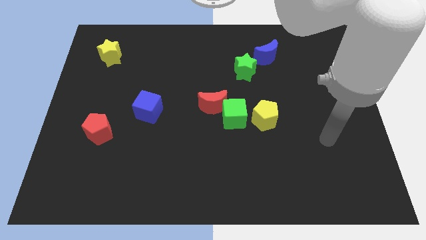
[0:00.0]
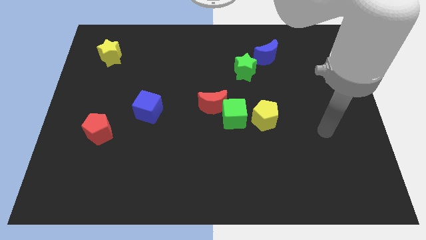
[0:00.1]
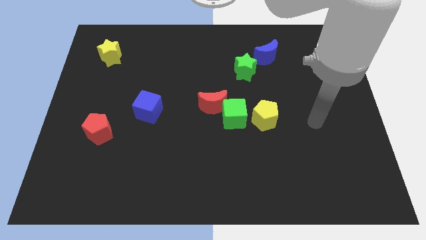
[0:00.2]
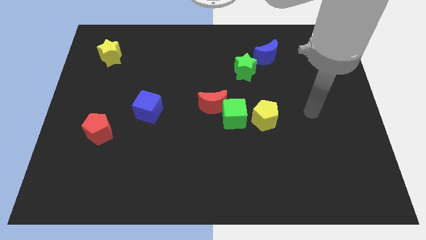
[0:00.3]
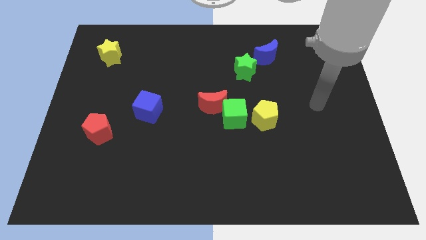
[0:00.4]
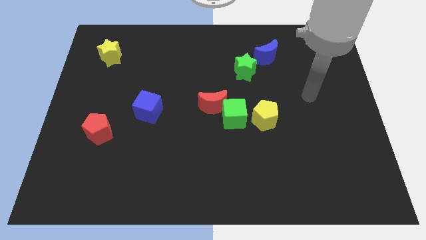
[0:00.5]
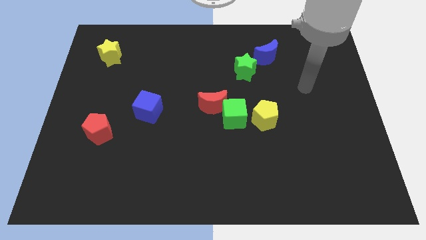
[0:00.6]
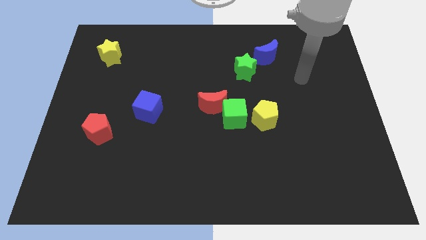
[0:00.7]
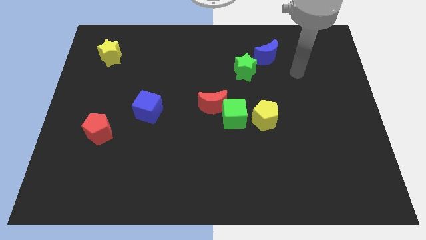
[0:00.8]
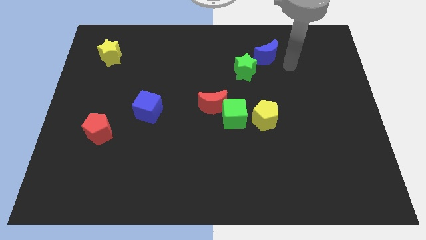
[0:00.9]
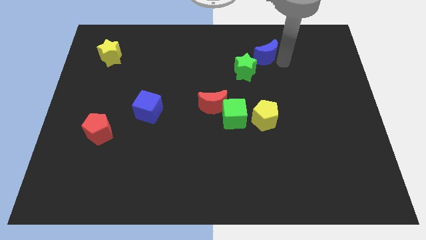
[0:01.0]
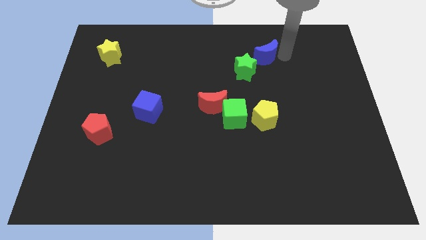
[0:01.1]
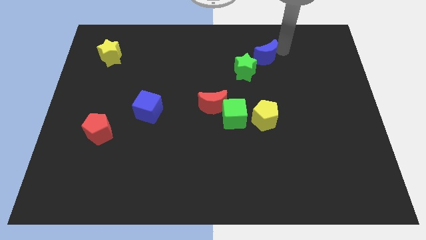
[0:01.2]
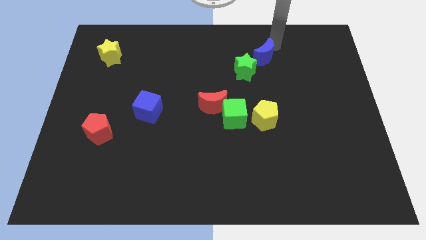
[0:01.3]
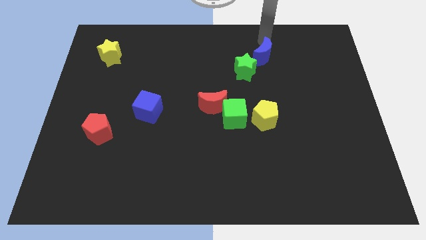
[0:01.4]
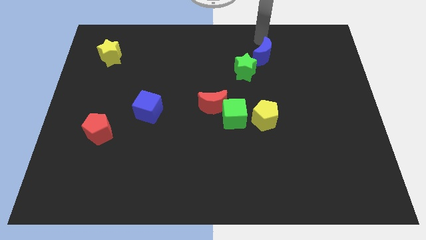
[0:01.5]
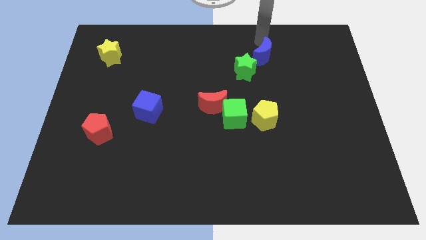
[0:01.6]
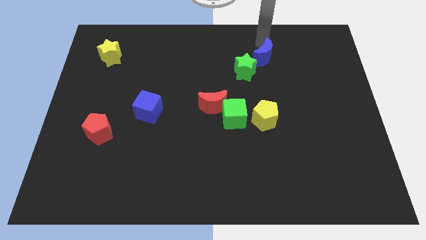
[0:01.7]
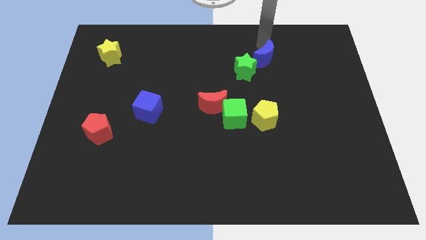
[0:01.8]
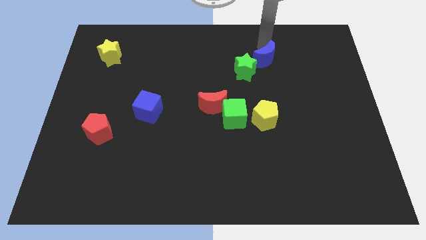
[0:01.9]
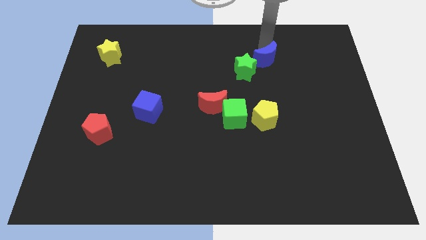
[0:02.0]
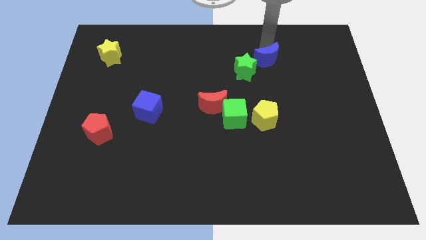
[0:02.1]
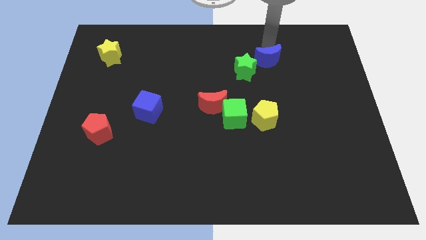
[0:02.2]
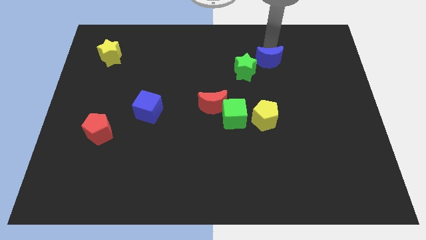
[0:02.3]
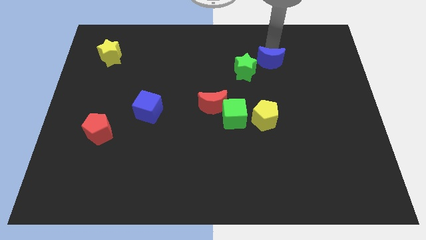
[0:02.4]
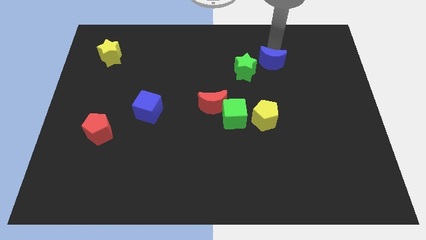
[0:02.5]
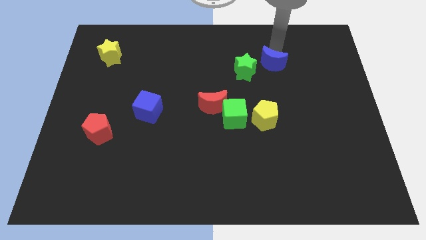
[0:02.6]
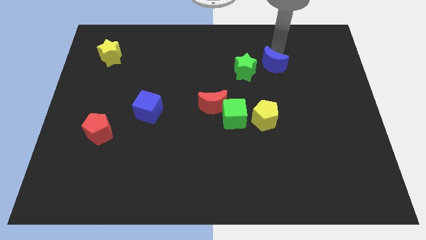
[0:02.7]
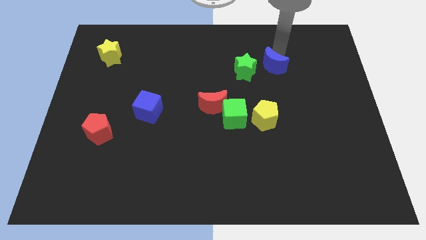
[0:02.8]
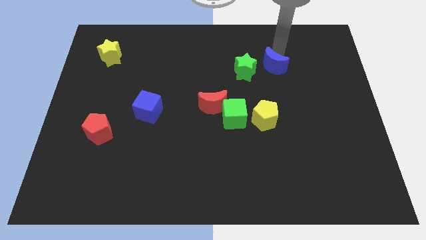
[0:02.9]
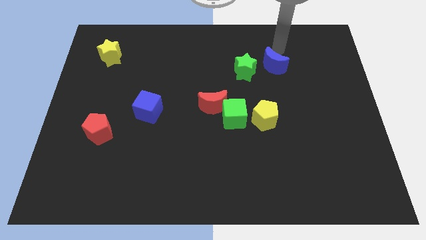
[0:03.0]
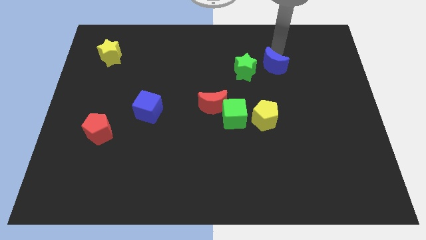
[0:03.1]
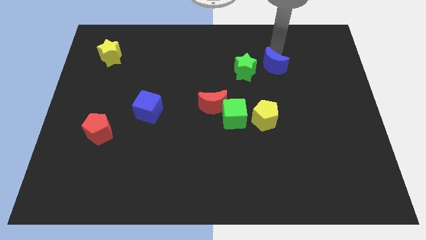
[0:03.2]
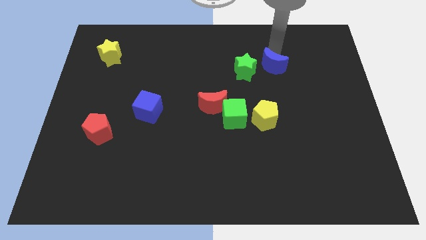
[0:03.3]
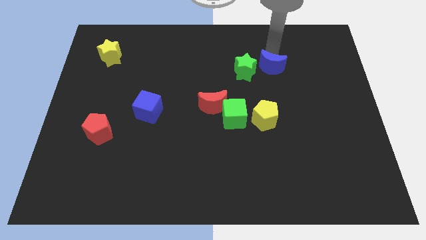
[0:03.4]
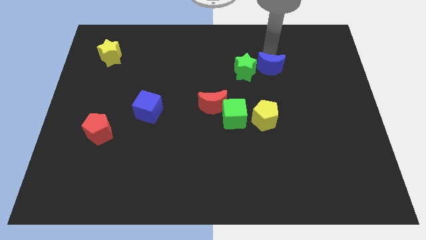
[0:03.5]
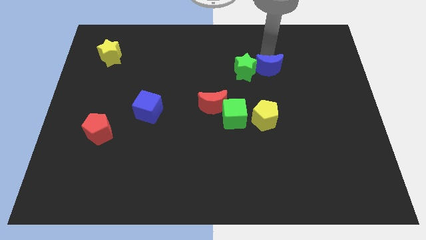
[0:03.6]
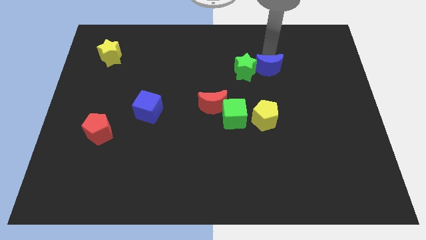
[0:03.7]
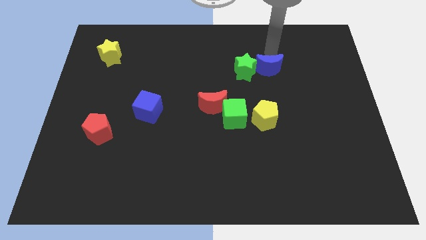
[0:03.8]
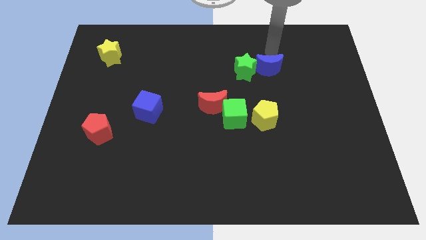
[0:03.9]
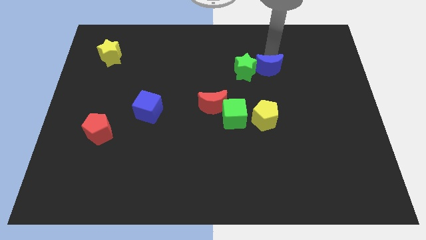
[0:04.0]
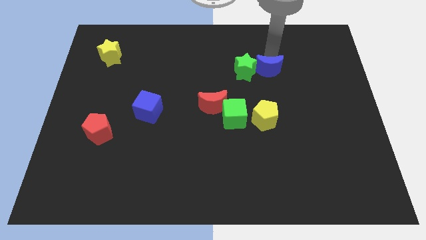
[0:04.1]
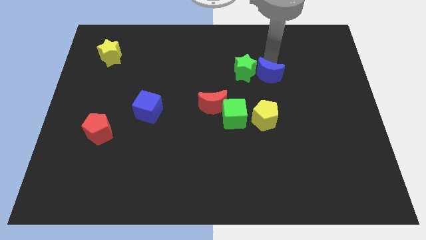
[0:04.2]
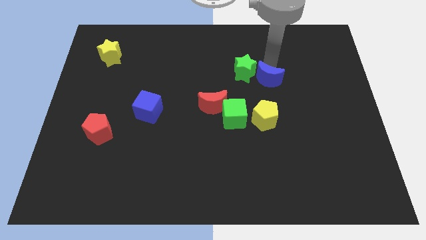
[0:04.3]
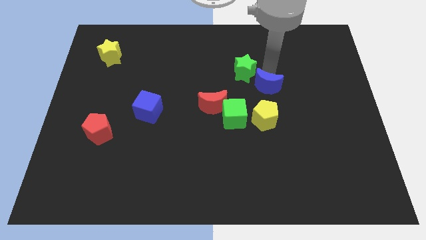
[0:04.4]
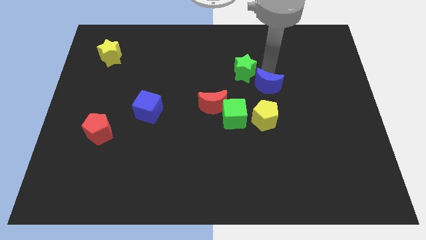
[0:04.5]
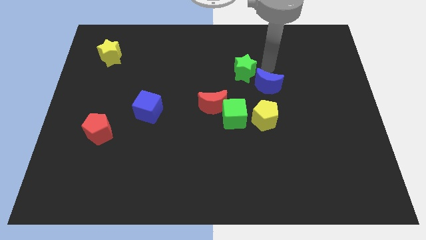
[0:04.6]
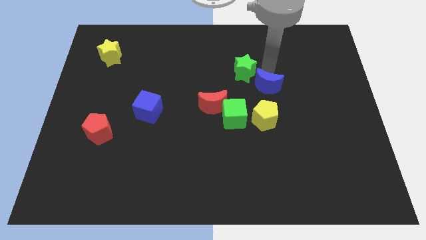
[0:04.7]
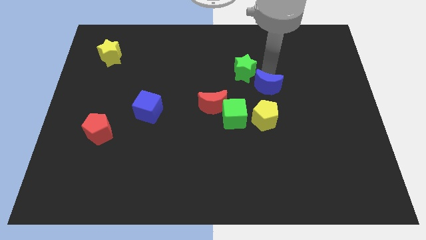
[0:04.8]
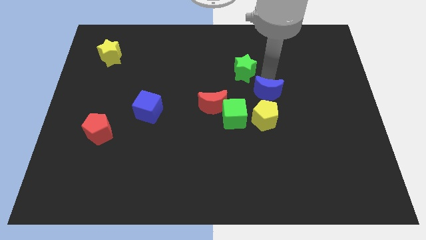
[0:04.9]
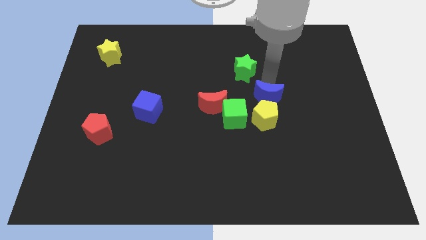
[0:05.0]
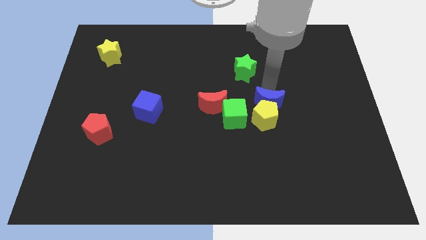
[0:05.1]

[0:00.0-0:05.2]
slide the blue moon next to the yellow pentagon

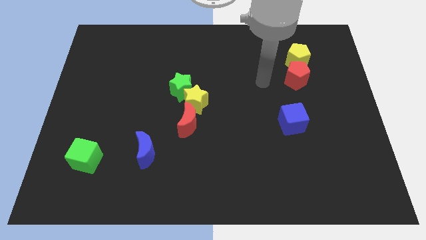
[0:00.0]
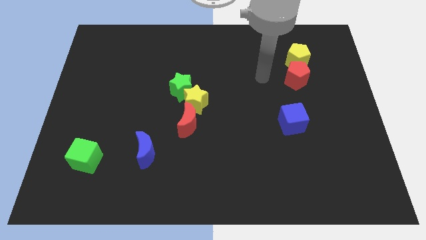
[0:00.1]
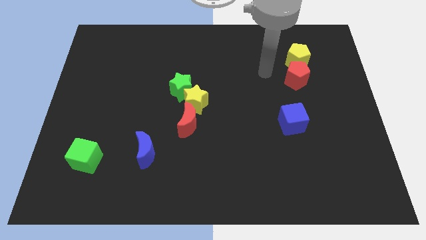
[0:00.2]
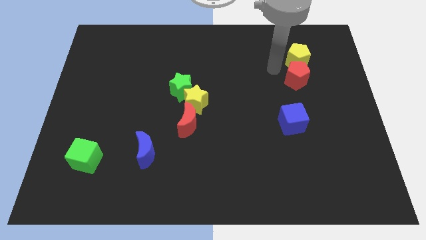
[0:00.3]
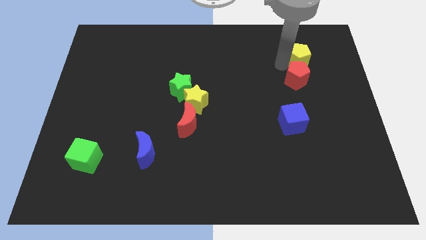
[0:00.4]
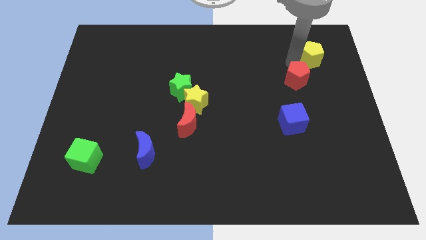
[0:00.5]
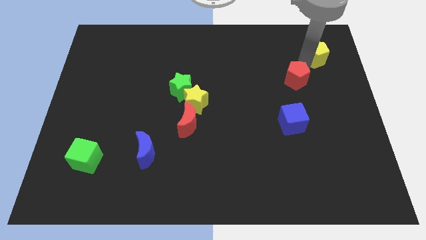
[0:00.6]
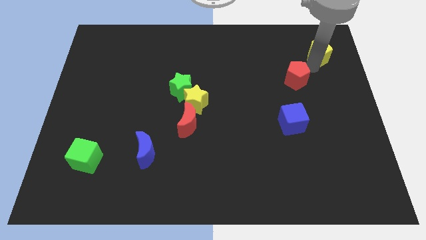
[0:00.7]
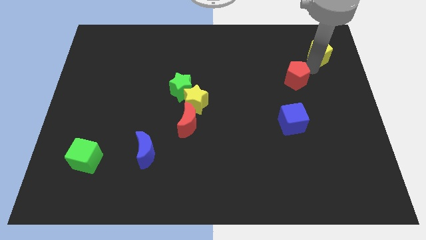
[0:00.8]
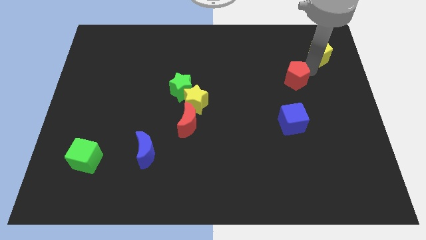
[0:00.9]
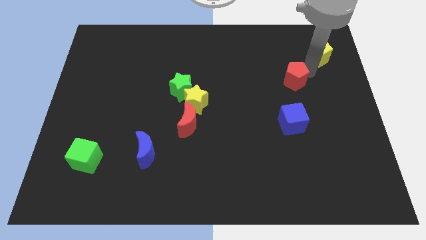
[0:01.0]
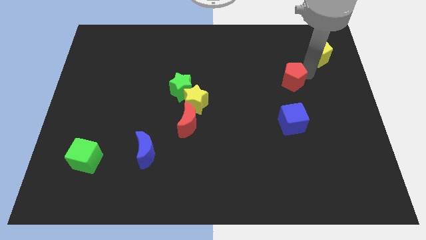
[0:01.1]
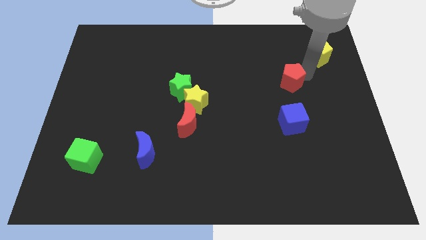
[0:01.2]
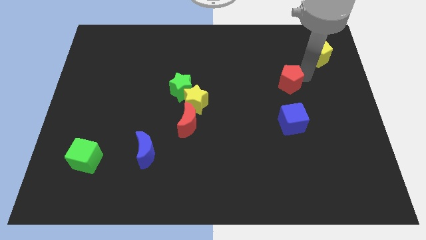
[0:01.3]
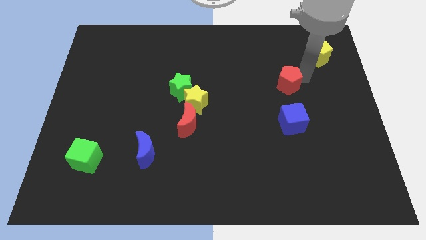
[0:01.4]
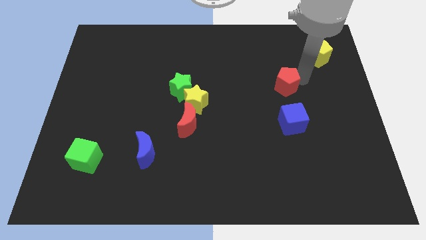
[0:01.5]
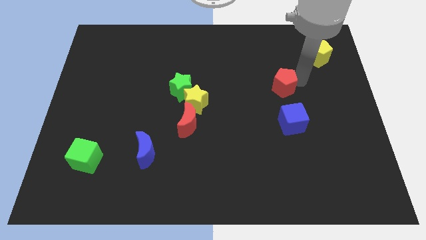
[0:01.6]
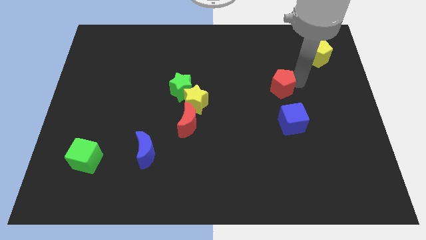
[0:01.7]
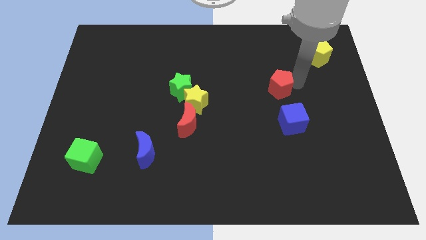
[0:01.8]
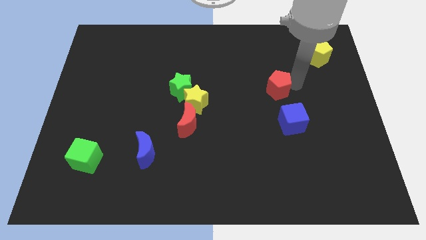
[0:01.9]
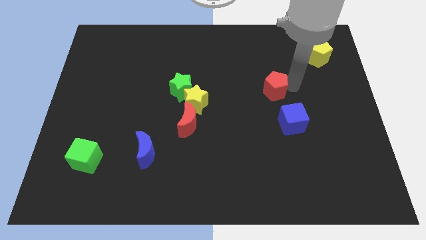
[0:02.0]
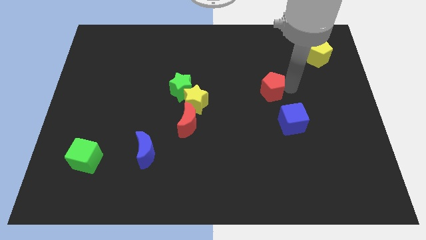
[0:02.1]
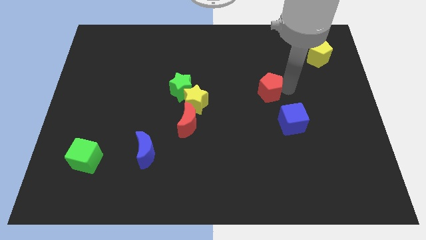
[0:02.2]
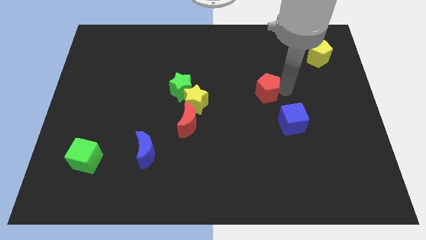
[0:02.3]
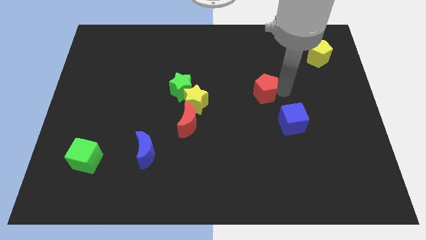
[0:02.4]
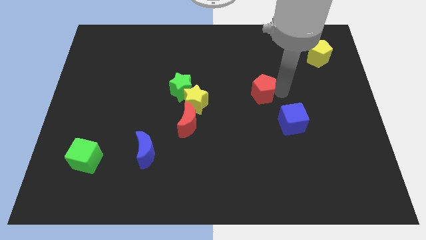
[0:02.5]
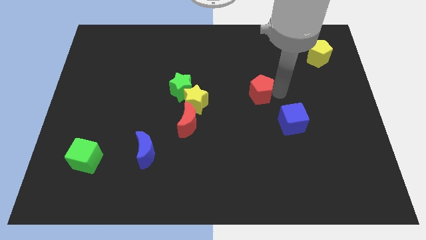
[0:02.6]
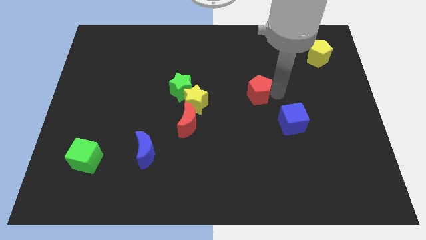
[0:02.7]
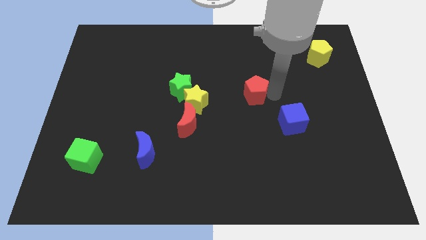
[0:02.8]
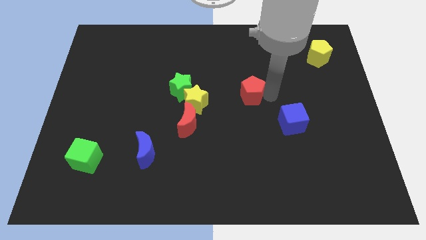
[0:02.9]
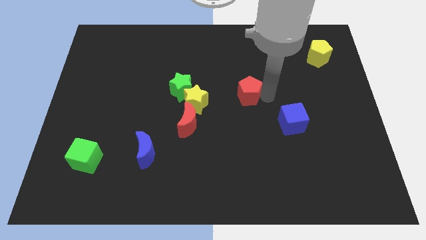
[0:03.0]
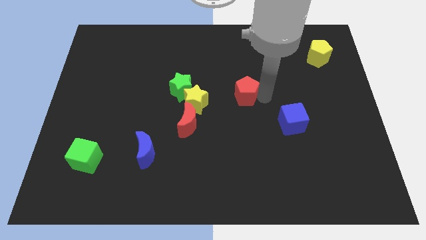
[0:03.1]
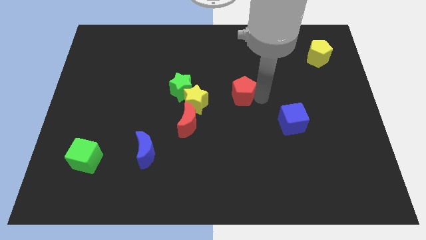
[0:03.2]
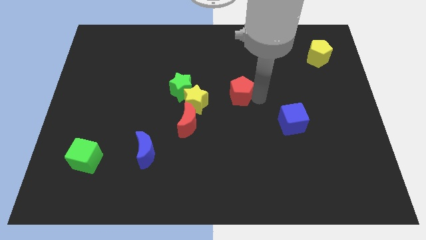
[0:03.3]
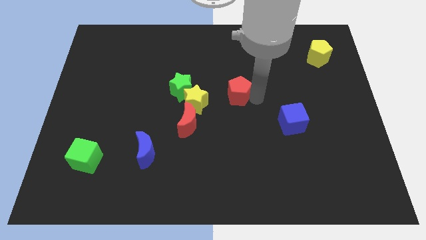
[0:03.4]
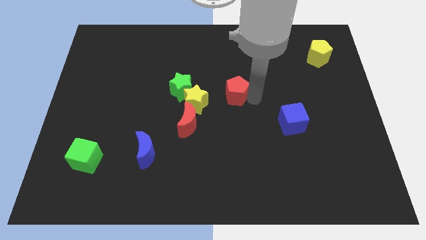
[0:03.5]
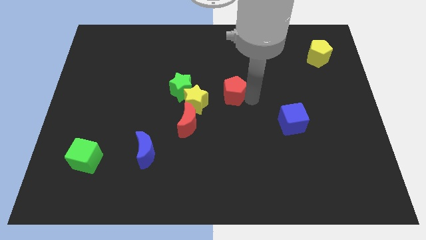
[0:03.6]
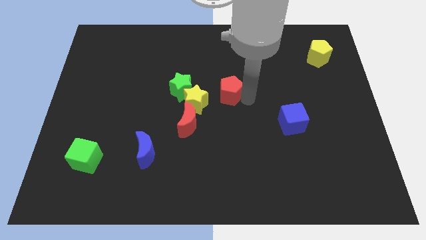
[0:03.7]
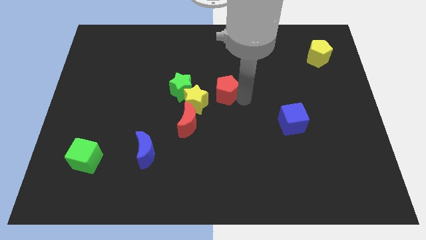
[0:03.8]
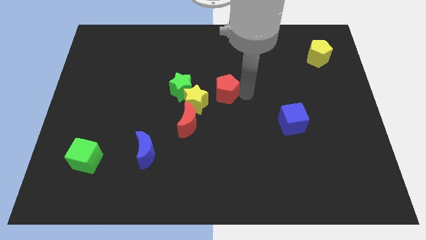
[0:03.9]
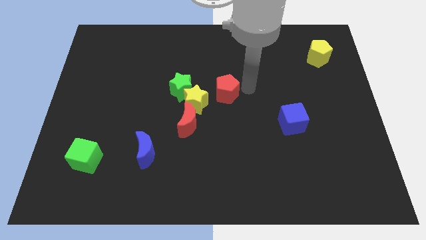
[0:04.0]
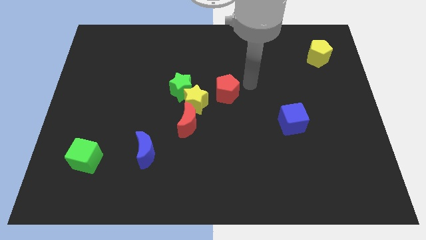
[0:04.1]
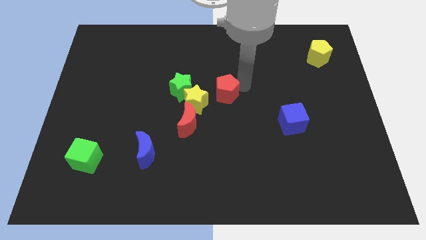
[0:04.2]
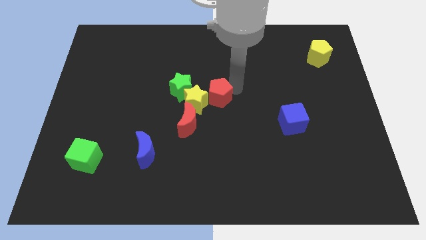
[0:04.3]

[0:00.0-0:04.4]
push the red pentagon next to the yellow star
